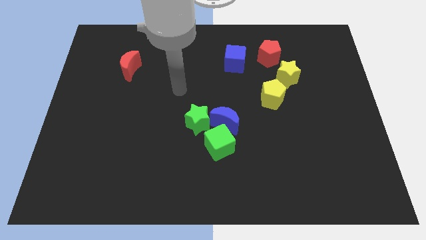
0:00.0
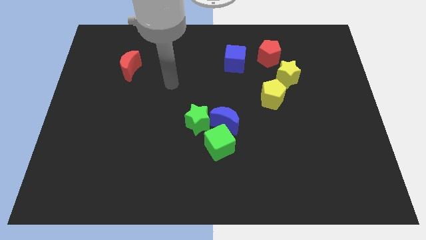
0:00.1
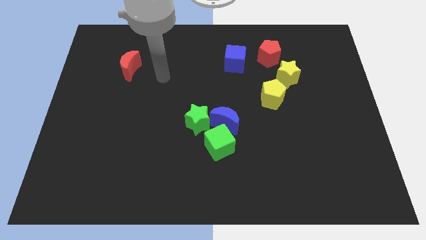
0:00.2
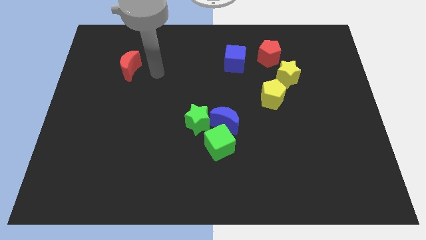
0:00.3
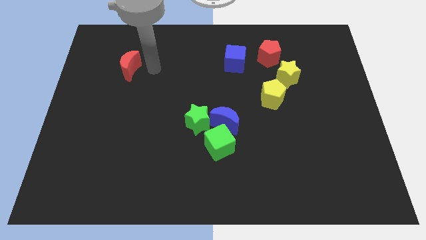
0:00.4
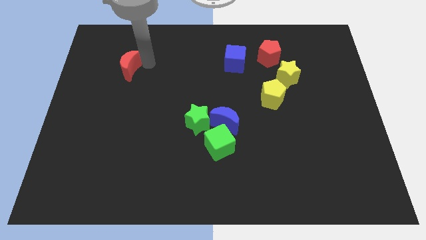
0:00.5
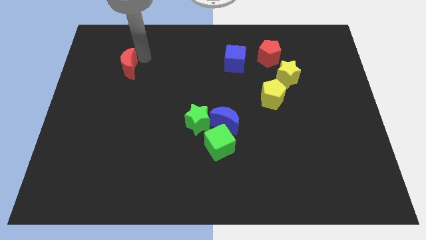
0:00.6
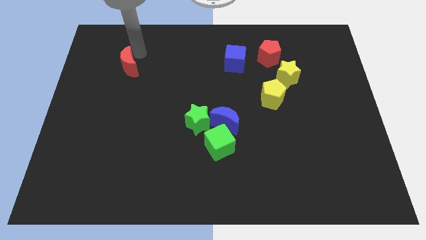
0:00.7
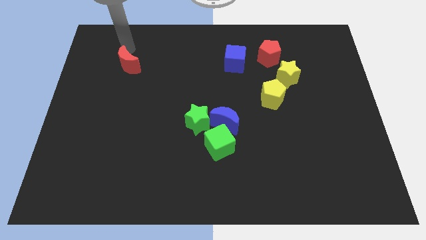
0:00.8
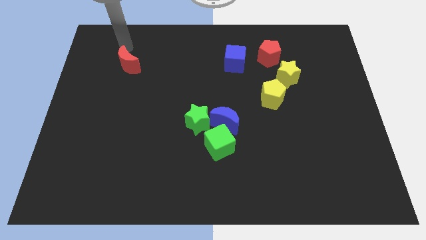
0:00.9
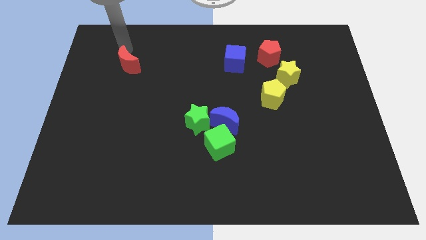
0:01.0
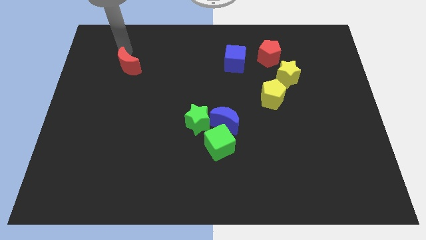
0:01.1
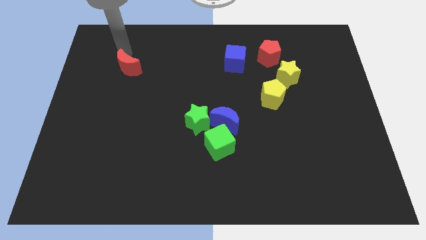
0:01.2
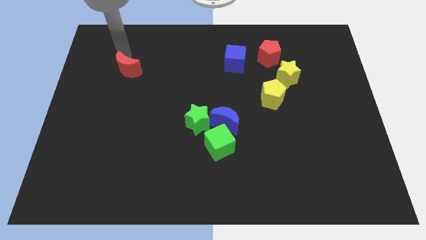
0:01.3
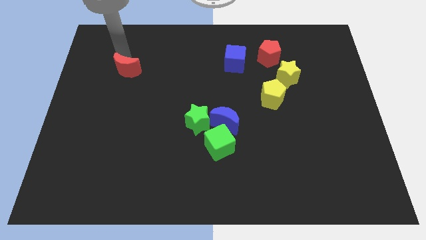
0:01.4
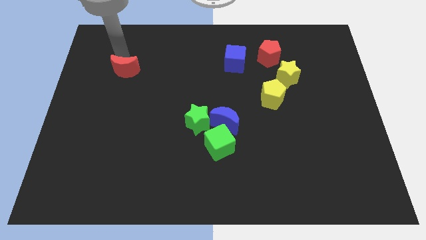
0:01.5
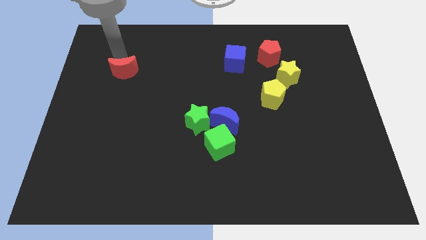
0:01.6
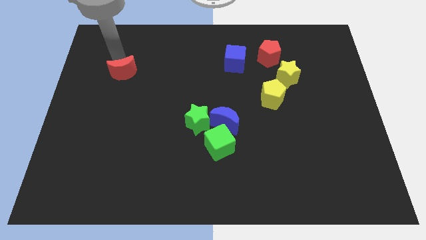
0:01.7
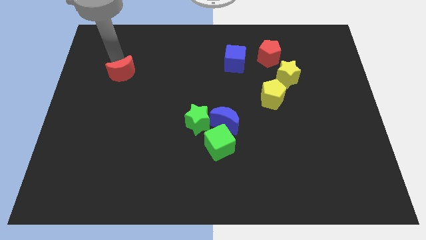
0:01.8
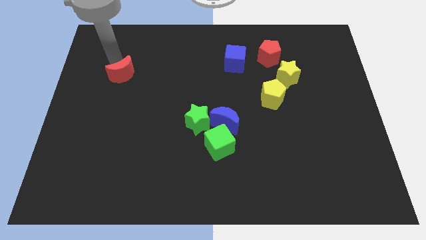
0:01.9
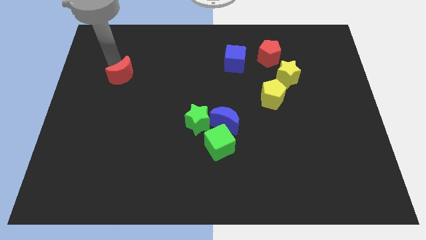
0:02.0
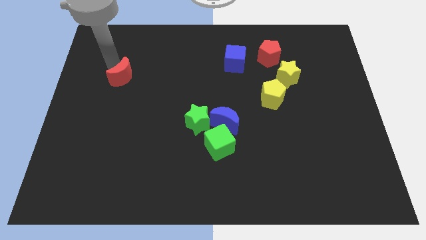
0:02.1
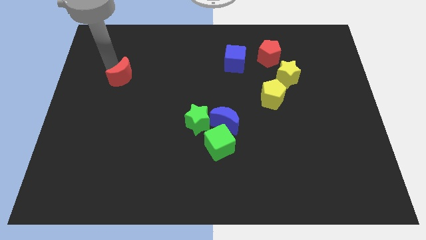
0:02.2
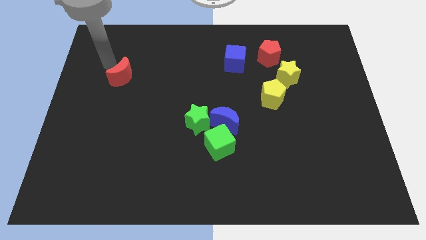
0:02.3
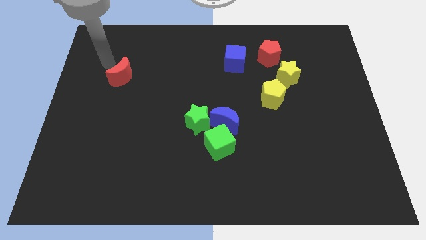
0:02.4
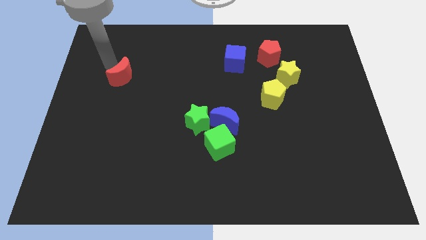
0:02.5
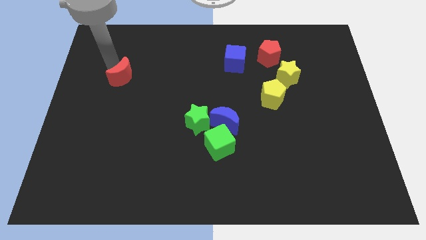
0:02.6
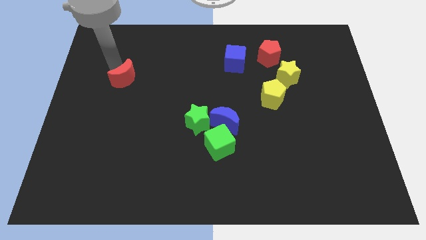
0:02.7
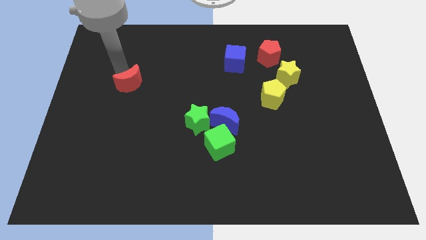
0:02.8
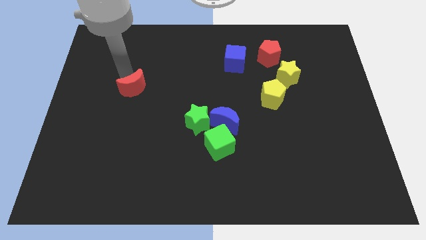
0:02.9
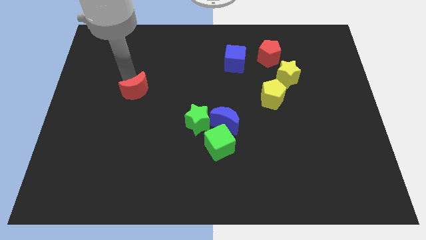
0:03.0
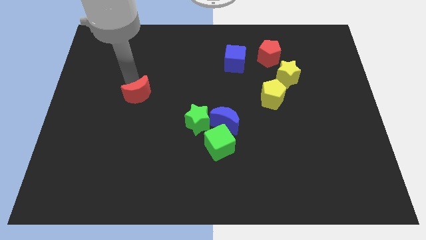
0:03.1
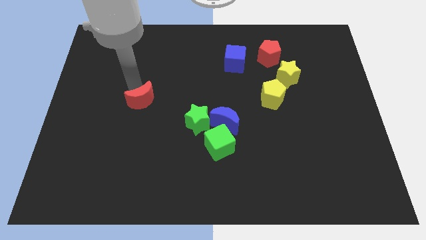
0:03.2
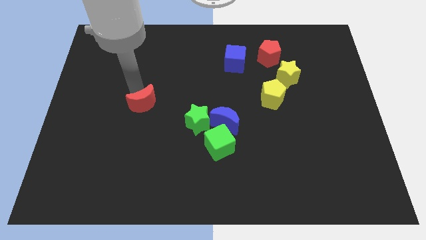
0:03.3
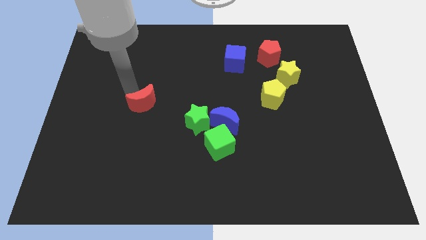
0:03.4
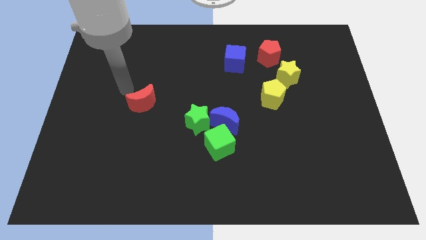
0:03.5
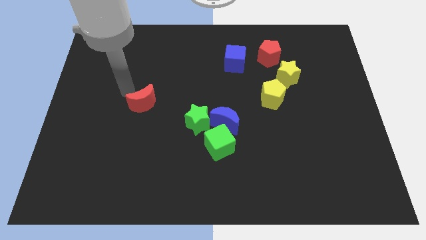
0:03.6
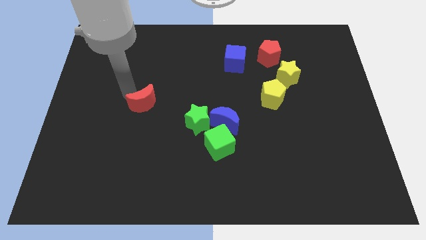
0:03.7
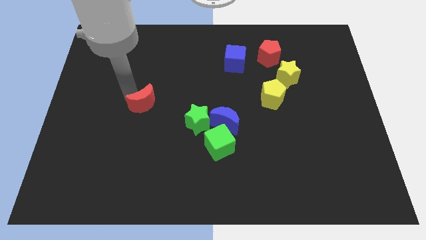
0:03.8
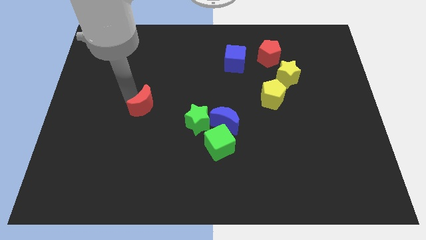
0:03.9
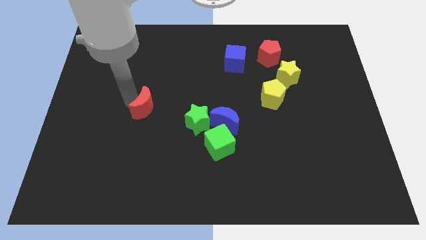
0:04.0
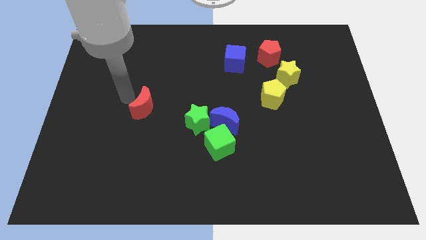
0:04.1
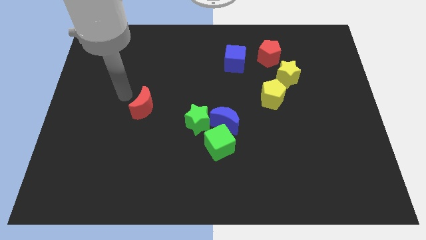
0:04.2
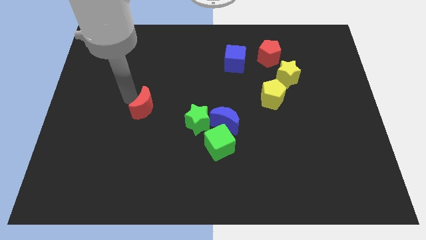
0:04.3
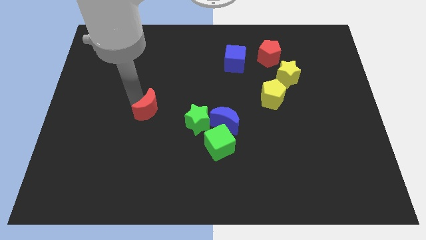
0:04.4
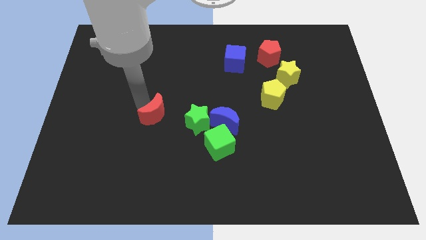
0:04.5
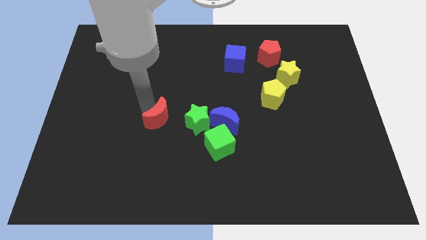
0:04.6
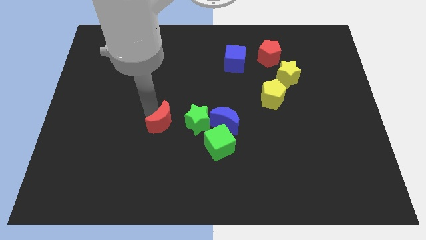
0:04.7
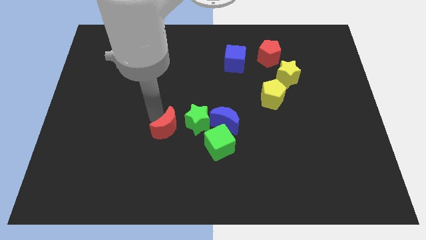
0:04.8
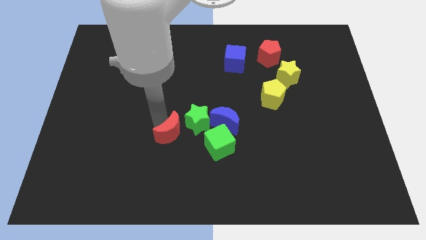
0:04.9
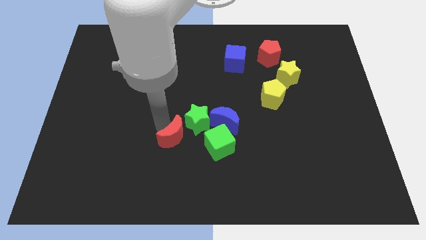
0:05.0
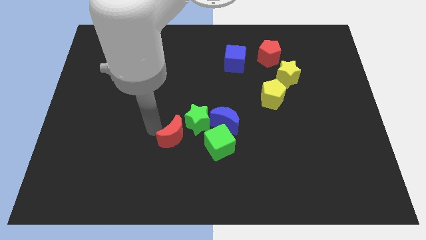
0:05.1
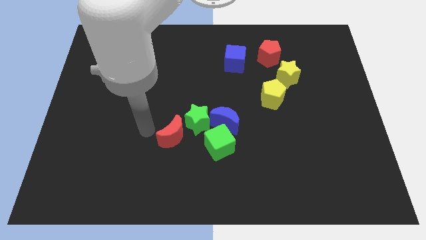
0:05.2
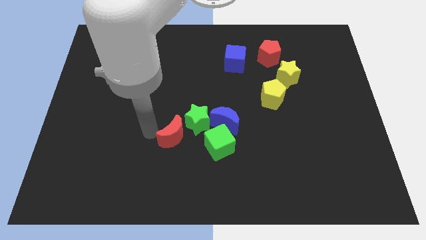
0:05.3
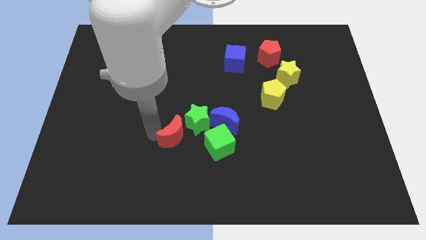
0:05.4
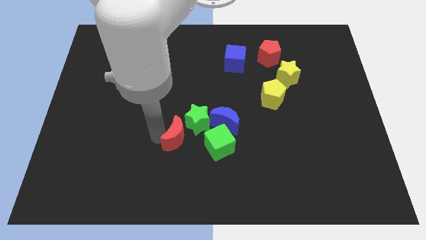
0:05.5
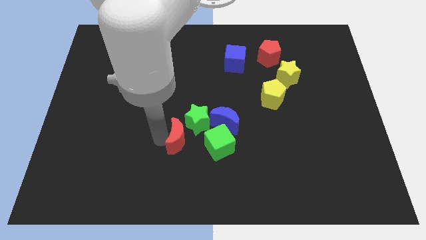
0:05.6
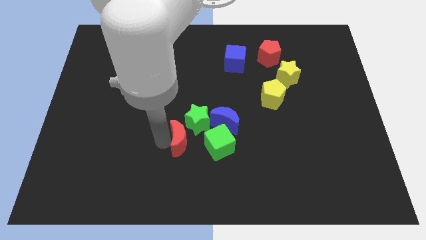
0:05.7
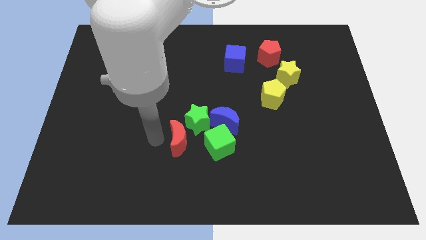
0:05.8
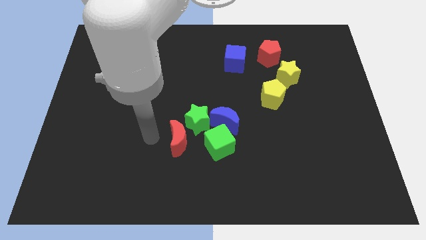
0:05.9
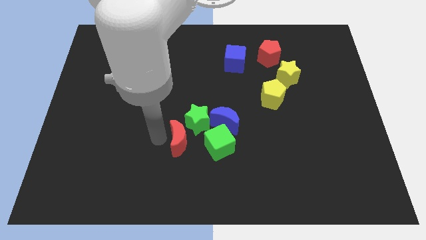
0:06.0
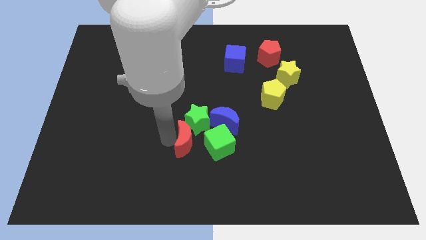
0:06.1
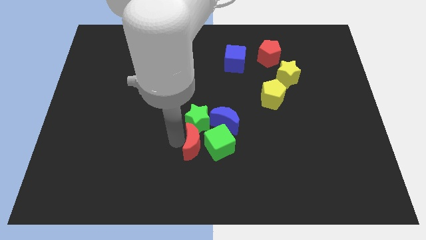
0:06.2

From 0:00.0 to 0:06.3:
push the red moon to the green cube

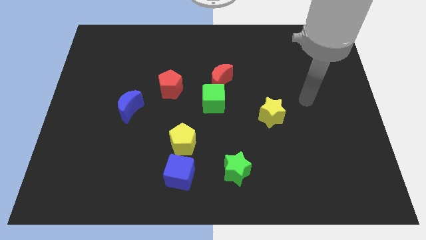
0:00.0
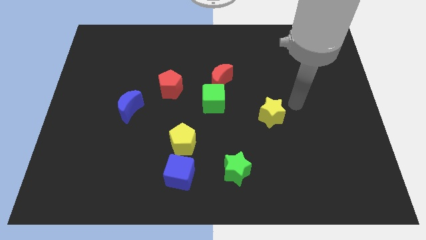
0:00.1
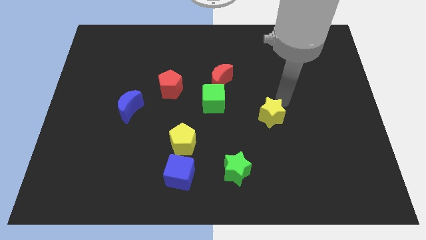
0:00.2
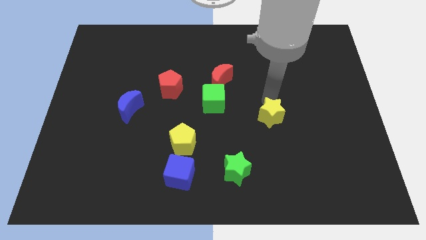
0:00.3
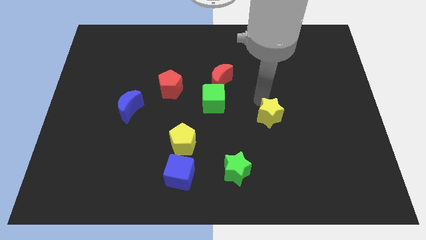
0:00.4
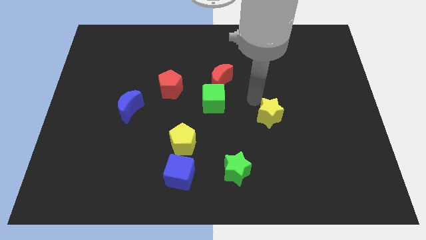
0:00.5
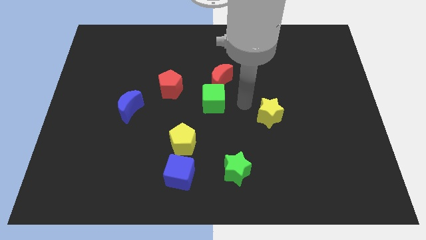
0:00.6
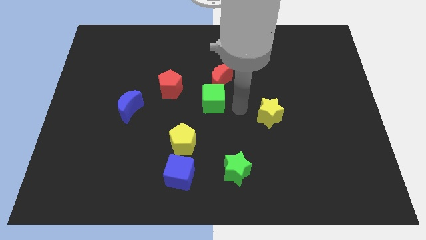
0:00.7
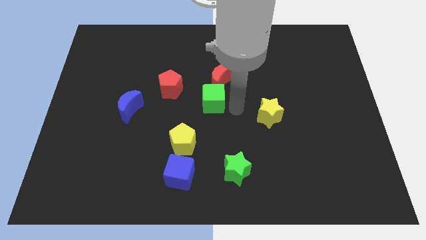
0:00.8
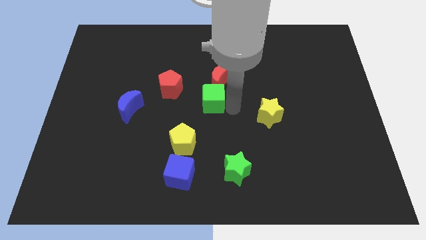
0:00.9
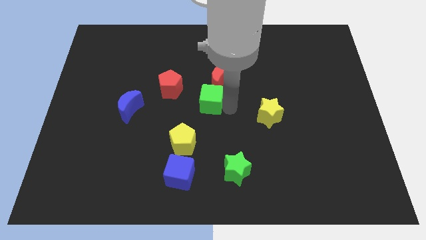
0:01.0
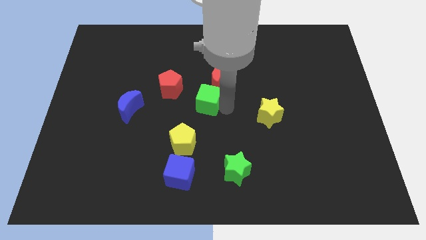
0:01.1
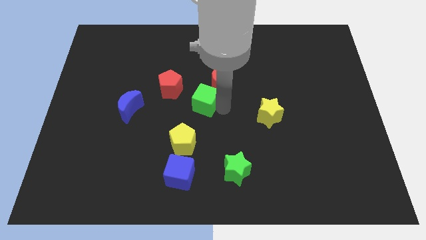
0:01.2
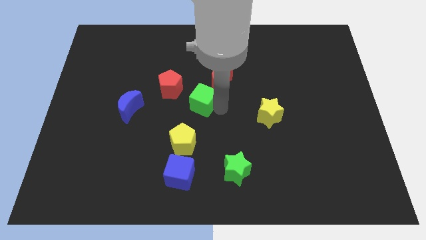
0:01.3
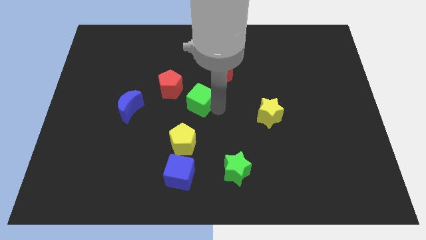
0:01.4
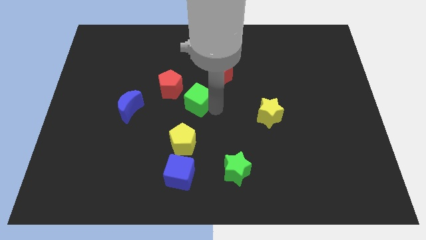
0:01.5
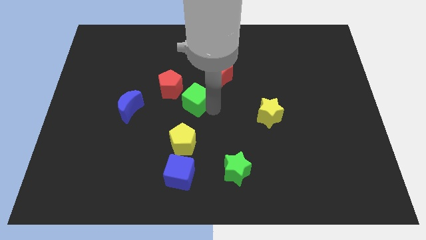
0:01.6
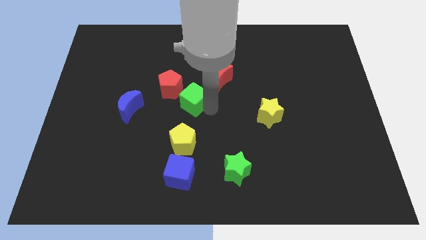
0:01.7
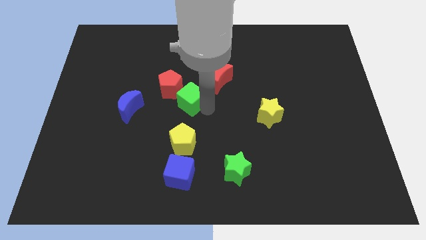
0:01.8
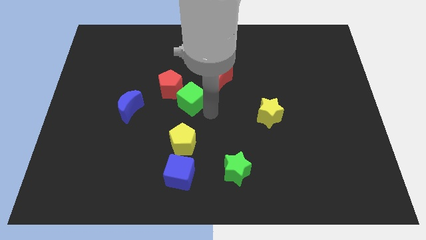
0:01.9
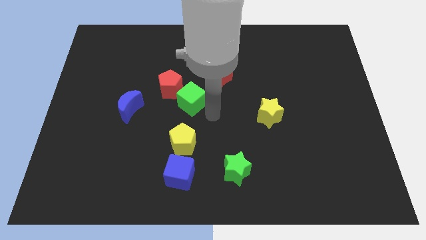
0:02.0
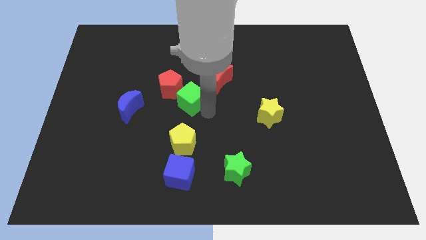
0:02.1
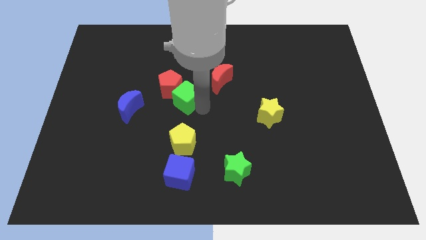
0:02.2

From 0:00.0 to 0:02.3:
move the green cube to the red pentagon
